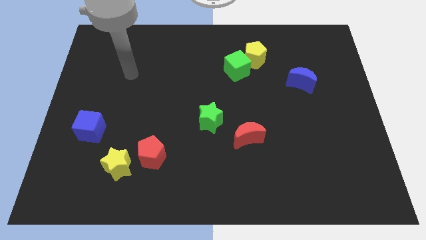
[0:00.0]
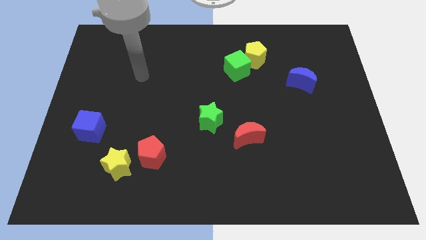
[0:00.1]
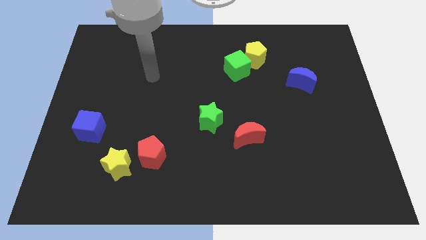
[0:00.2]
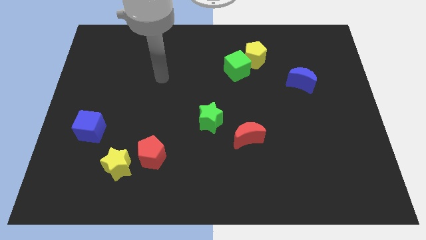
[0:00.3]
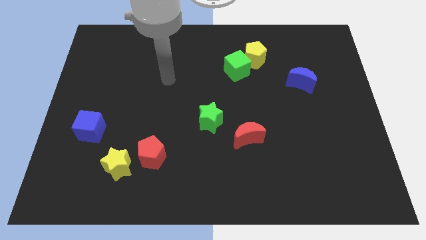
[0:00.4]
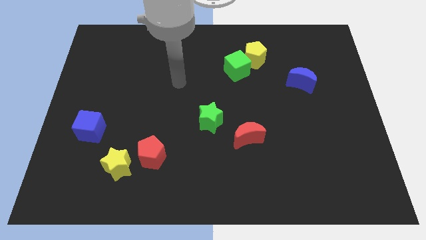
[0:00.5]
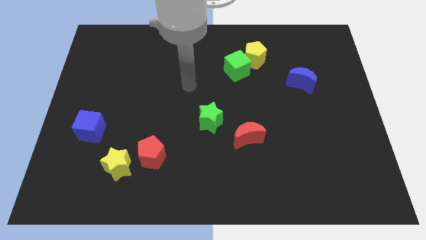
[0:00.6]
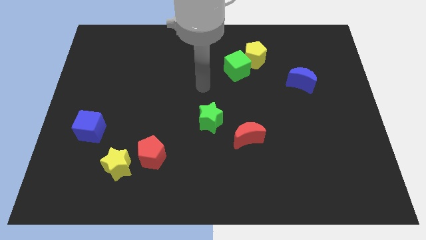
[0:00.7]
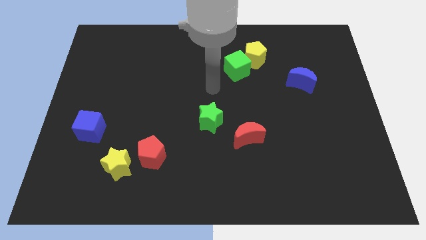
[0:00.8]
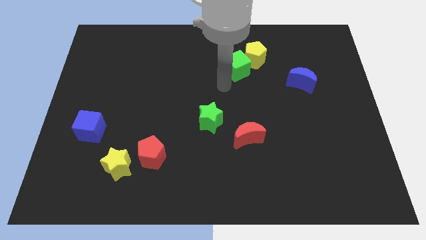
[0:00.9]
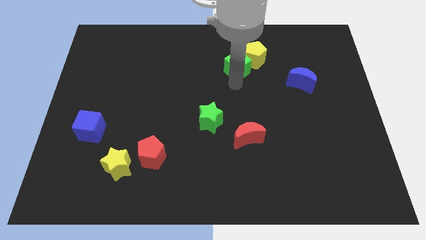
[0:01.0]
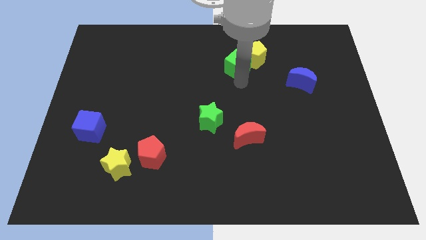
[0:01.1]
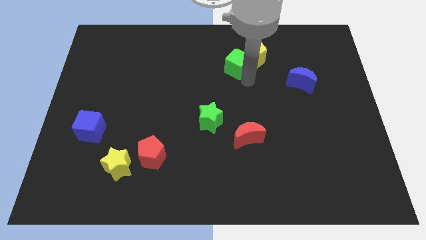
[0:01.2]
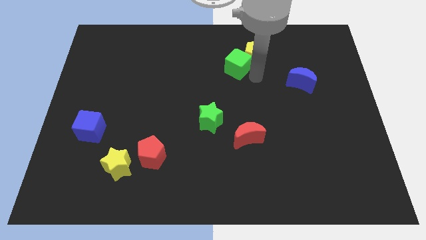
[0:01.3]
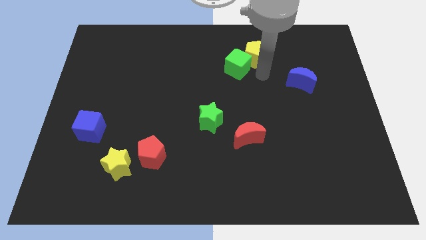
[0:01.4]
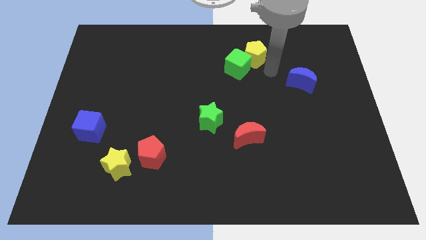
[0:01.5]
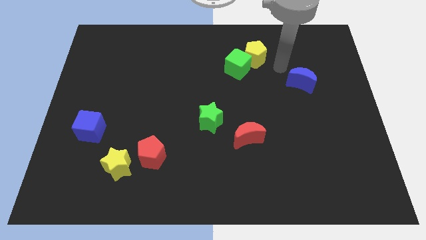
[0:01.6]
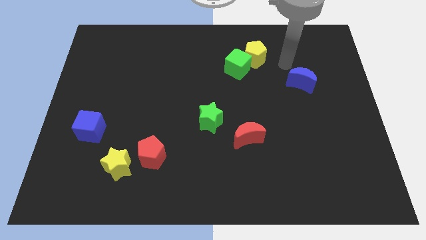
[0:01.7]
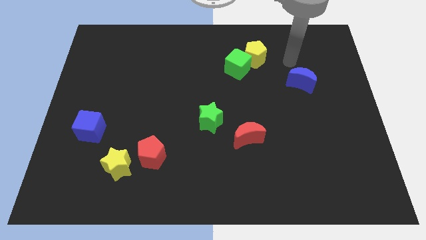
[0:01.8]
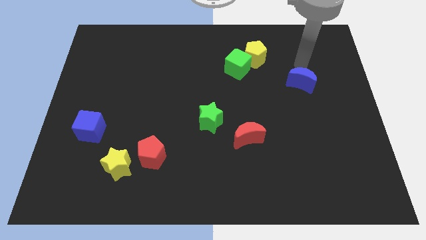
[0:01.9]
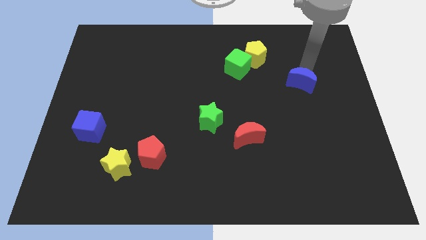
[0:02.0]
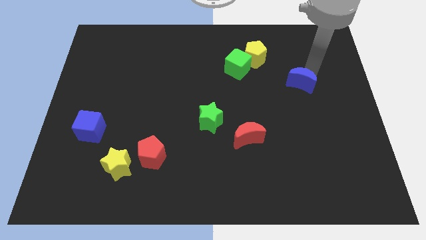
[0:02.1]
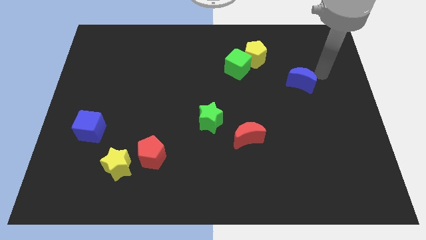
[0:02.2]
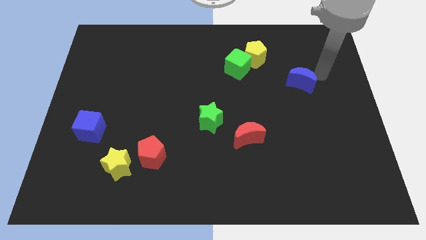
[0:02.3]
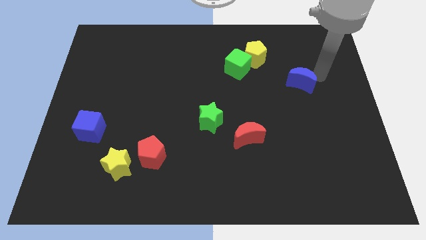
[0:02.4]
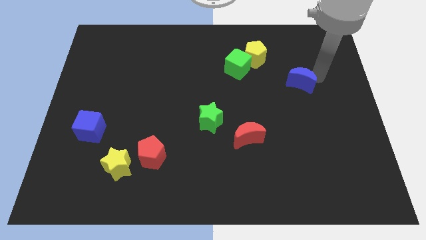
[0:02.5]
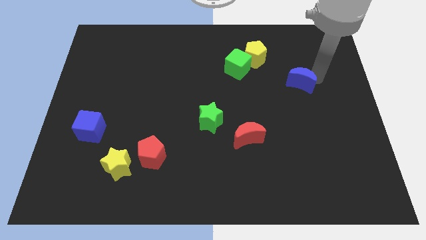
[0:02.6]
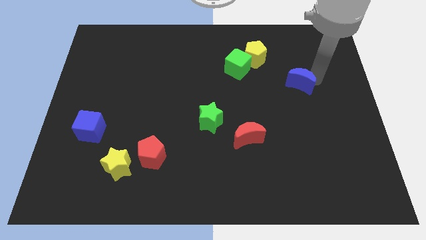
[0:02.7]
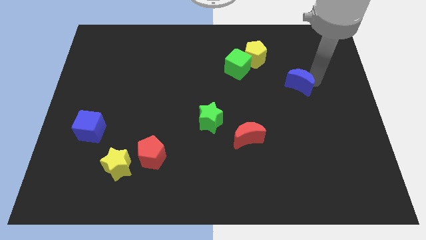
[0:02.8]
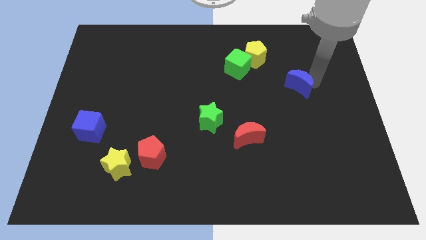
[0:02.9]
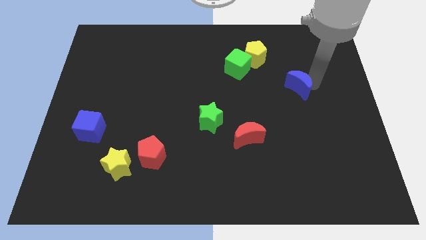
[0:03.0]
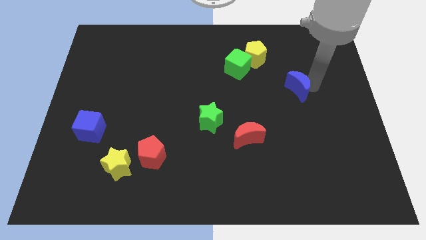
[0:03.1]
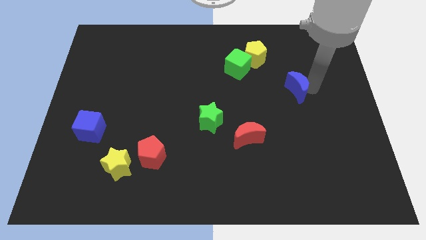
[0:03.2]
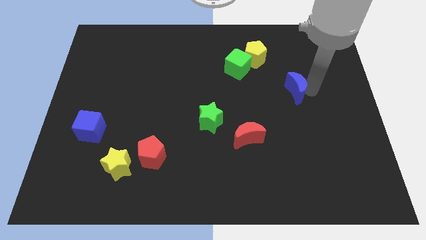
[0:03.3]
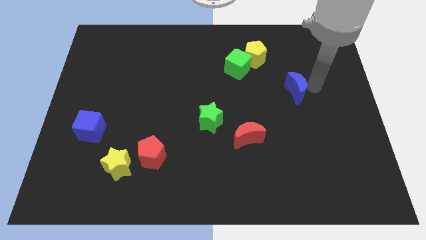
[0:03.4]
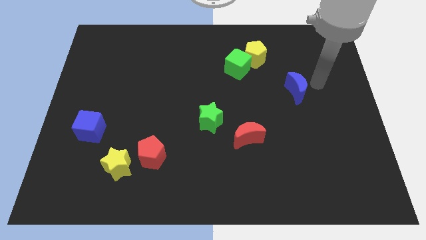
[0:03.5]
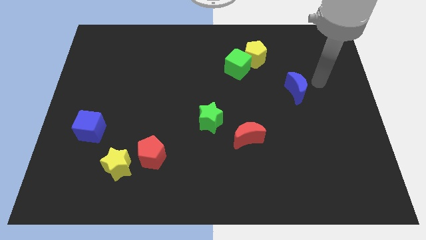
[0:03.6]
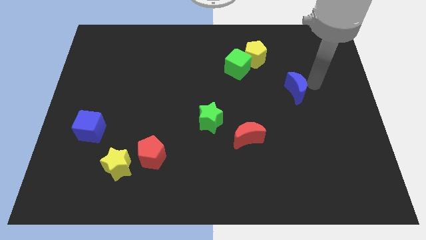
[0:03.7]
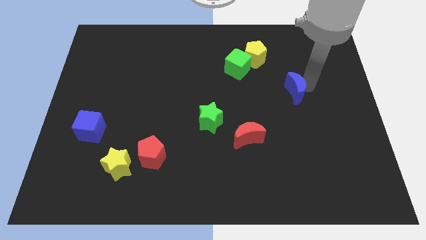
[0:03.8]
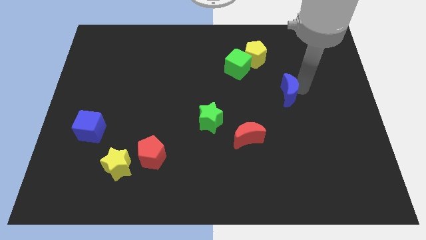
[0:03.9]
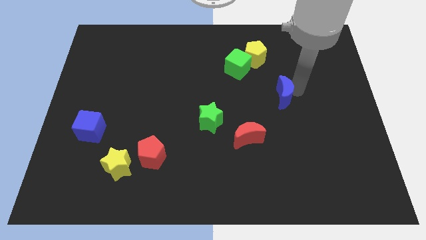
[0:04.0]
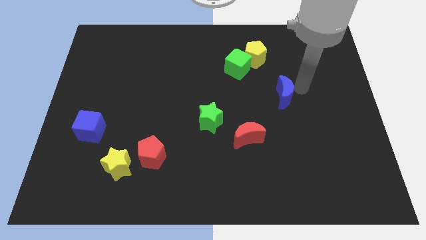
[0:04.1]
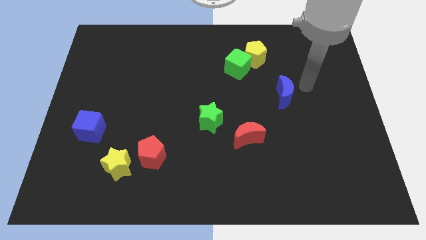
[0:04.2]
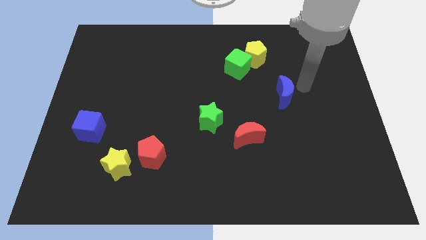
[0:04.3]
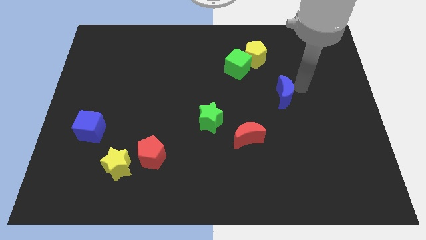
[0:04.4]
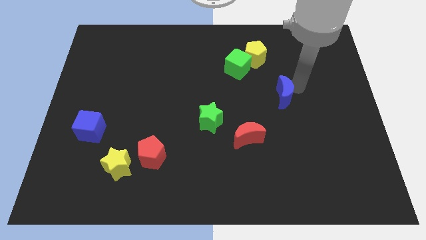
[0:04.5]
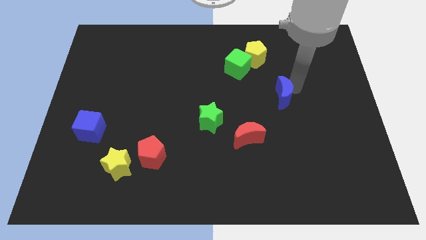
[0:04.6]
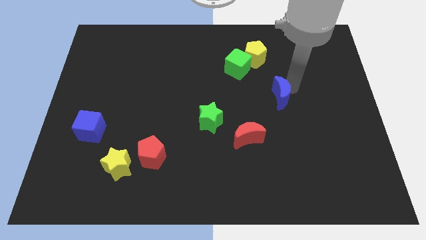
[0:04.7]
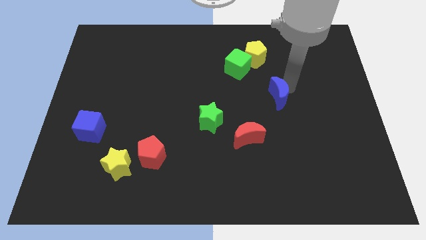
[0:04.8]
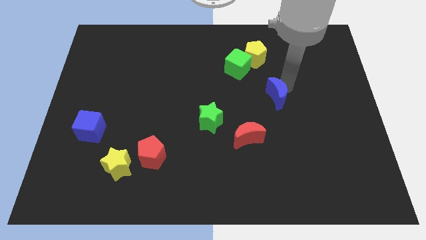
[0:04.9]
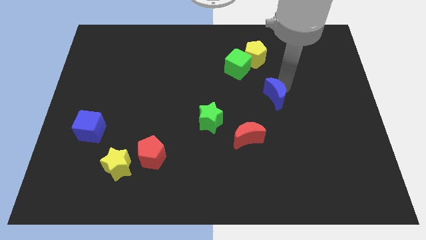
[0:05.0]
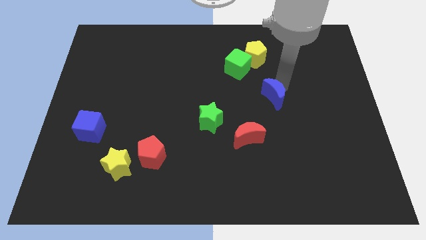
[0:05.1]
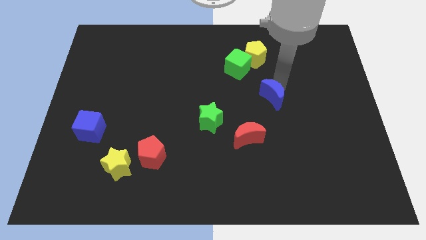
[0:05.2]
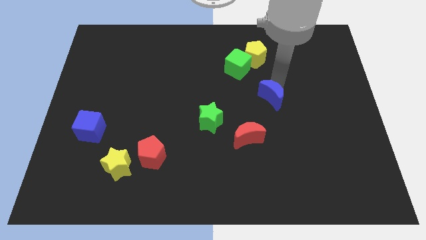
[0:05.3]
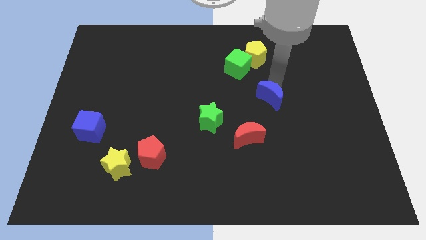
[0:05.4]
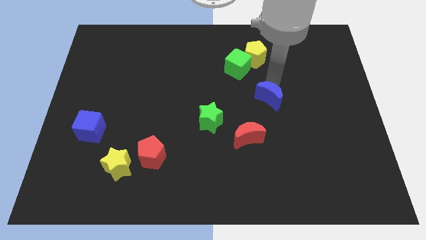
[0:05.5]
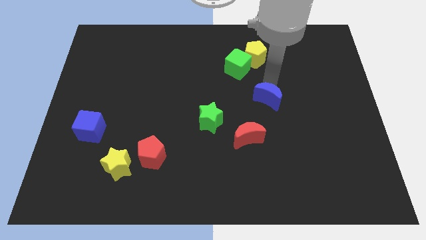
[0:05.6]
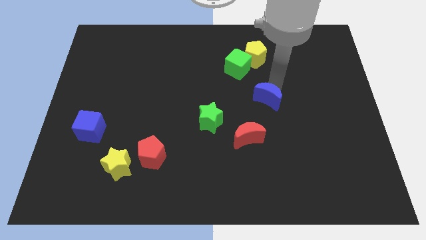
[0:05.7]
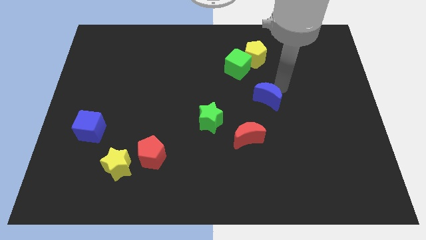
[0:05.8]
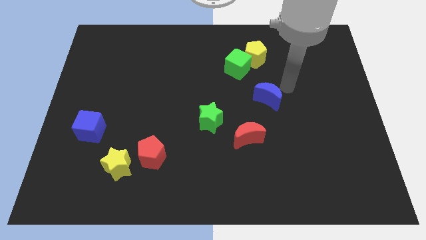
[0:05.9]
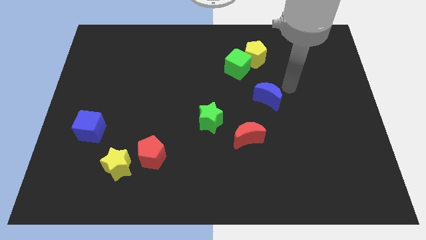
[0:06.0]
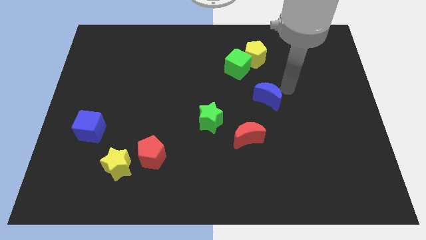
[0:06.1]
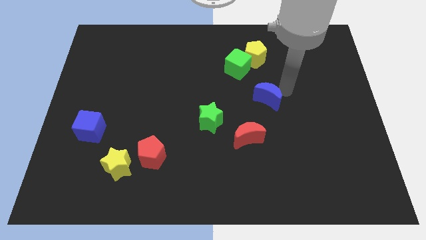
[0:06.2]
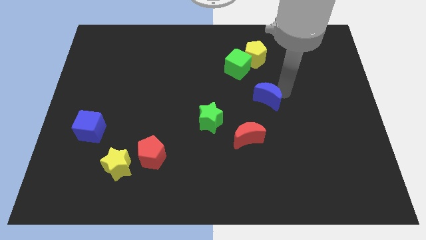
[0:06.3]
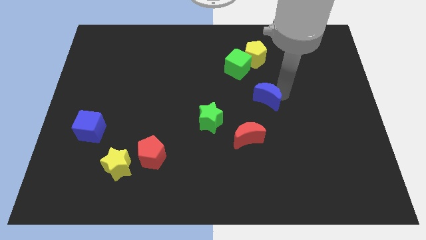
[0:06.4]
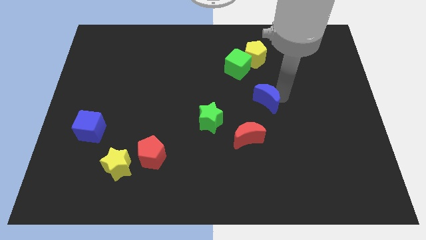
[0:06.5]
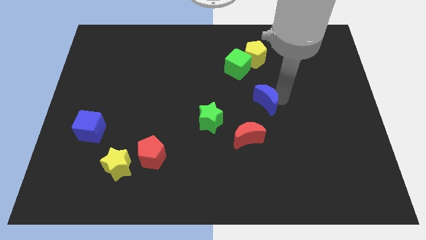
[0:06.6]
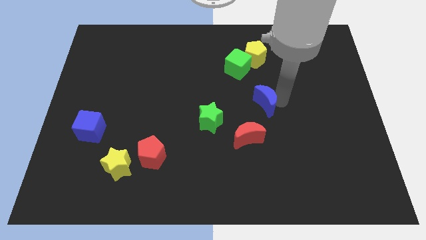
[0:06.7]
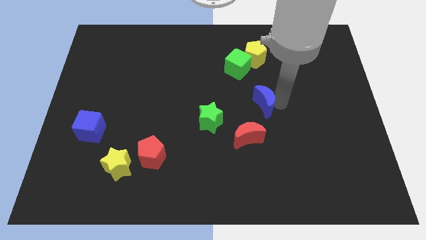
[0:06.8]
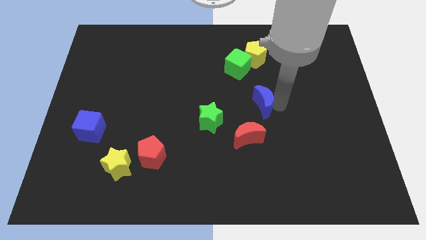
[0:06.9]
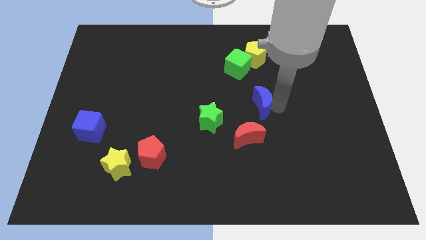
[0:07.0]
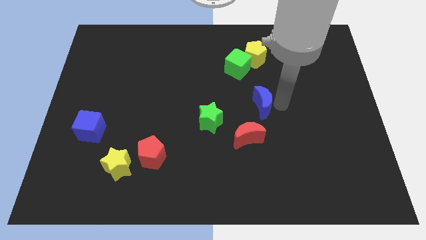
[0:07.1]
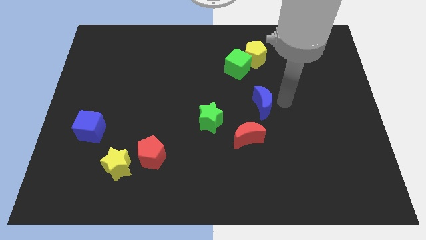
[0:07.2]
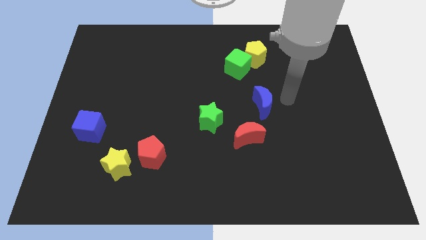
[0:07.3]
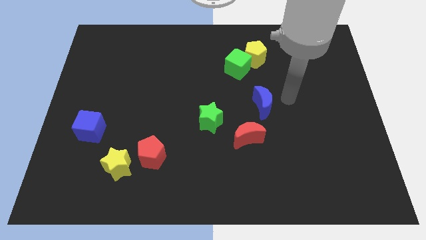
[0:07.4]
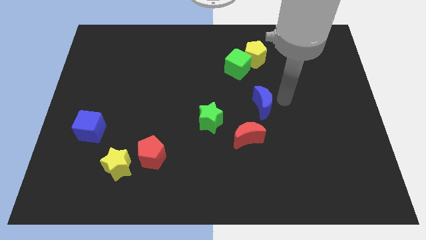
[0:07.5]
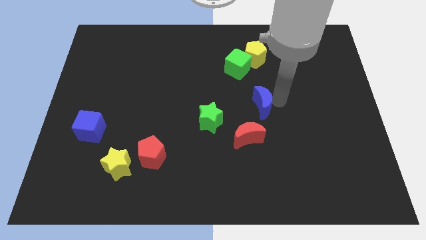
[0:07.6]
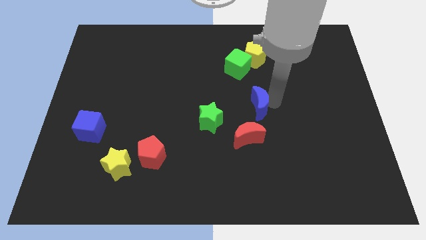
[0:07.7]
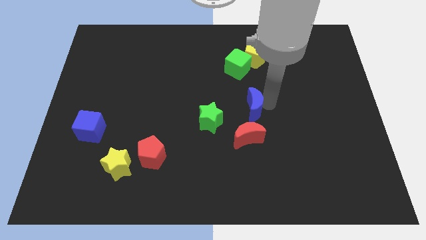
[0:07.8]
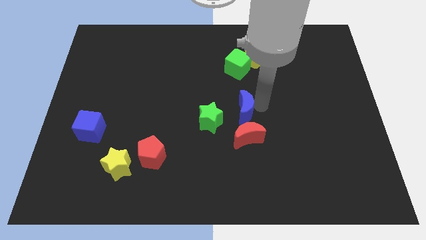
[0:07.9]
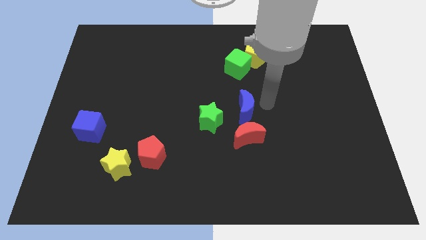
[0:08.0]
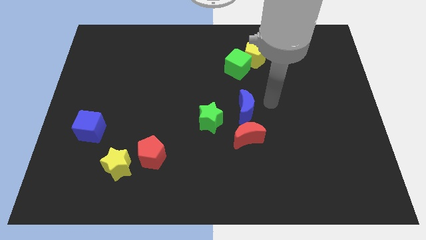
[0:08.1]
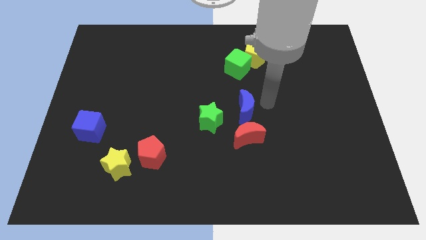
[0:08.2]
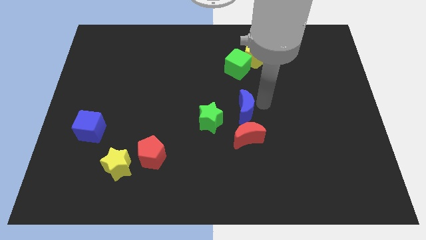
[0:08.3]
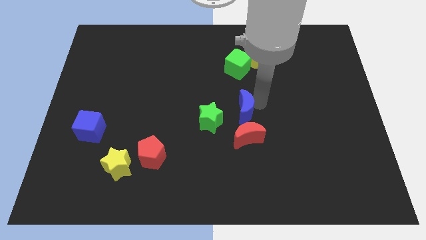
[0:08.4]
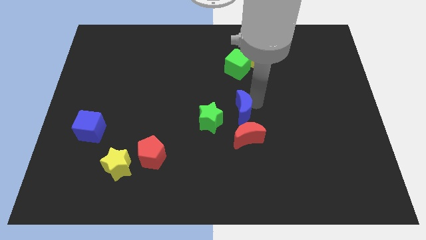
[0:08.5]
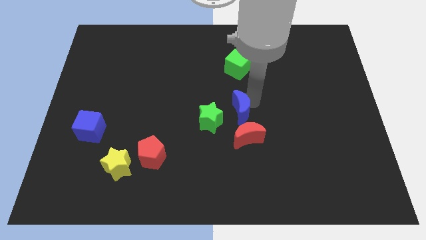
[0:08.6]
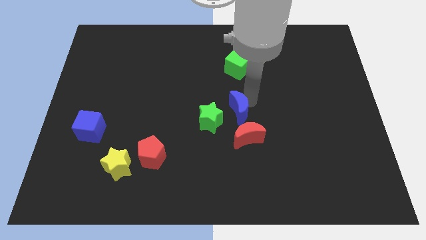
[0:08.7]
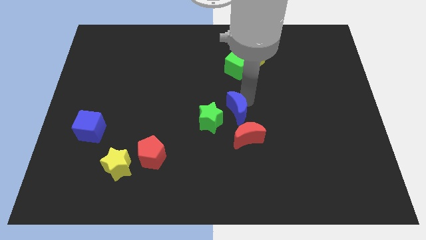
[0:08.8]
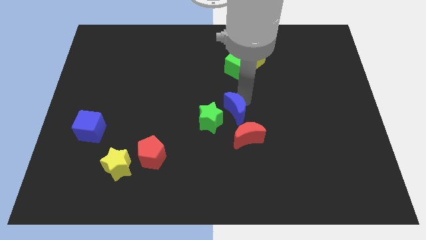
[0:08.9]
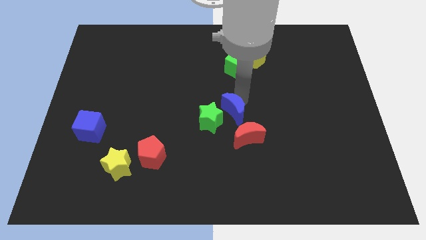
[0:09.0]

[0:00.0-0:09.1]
put the blue moon close to the green star
